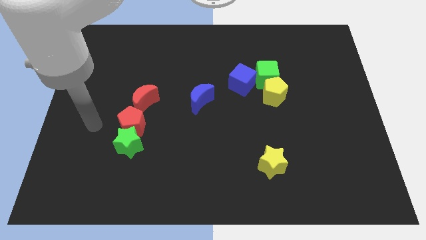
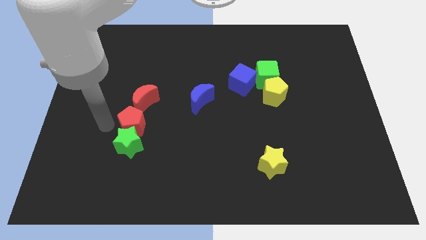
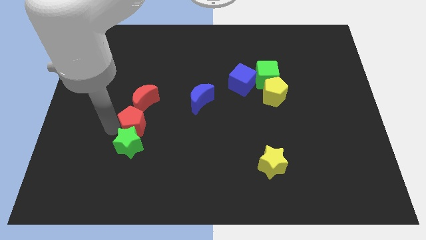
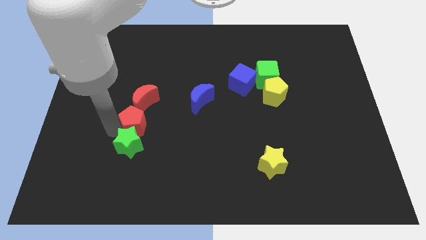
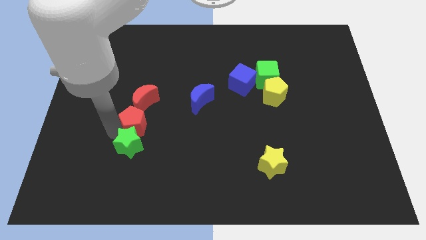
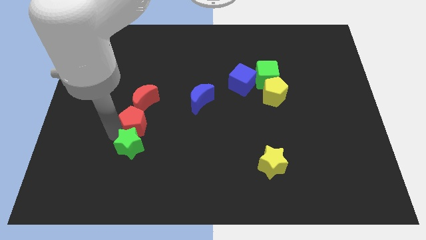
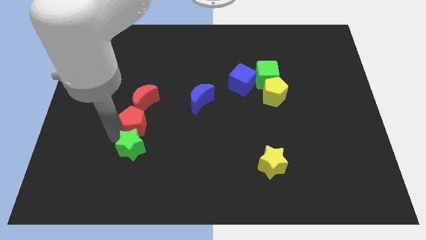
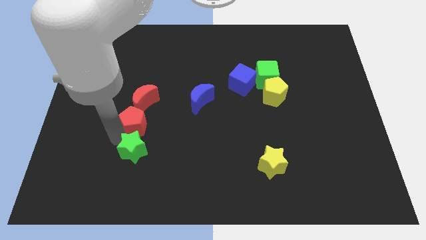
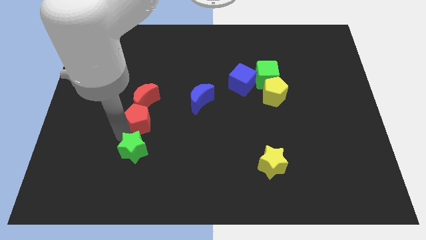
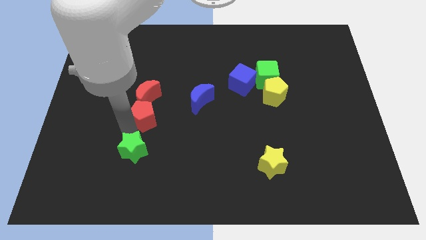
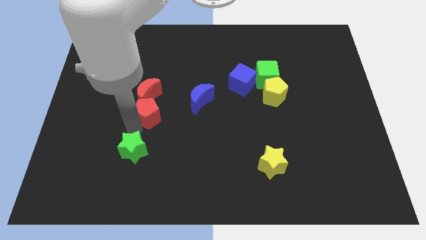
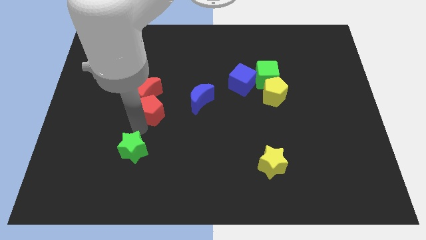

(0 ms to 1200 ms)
move the green star away from the red pentagon

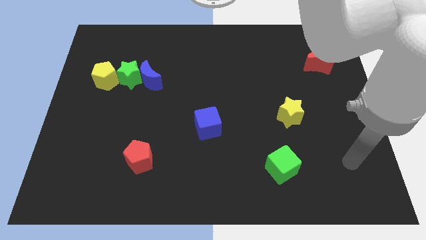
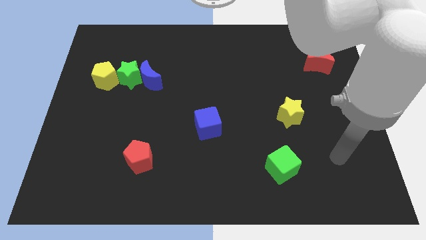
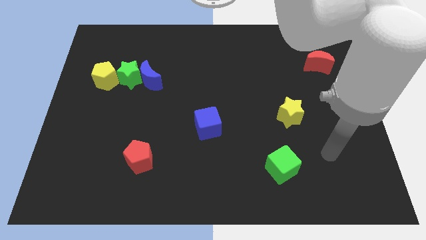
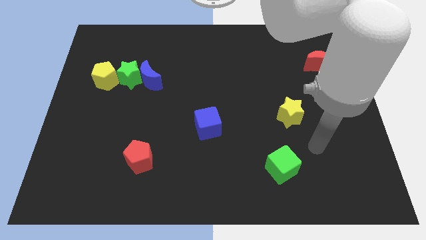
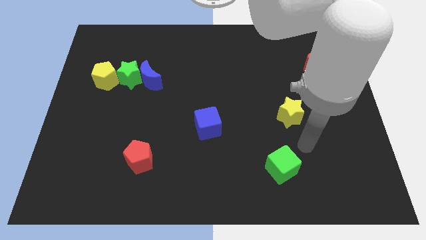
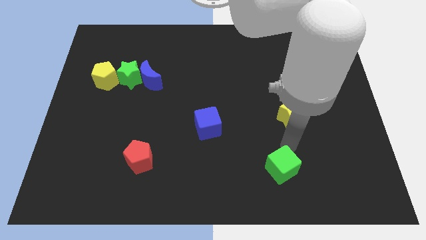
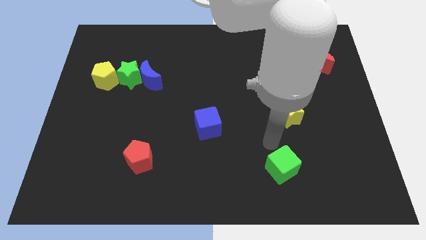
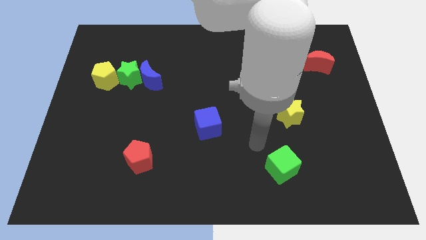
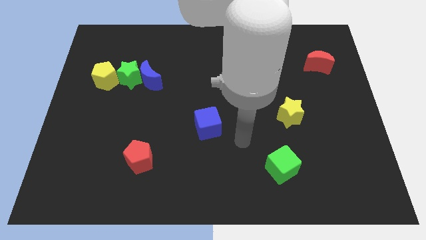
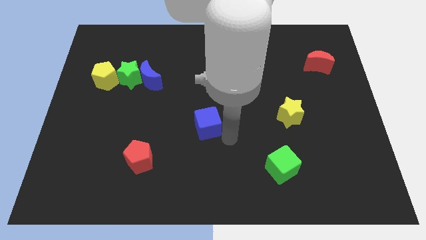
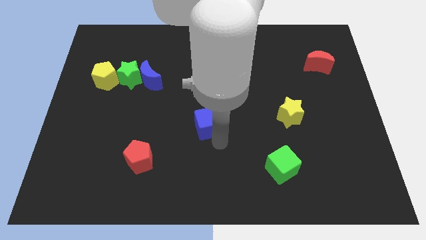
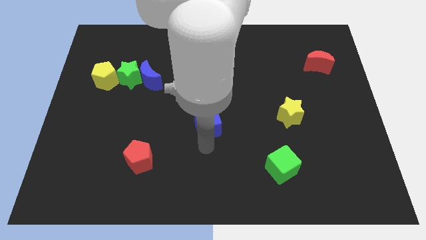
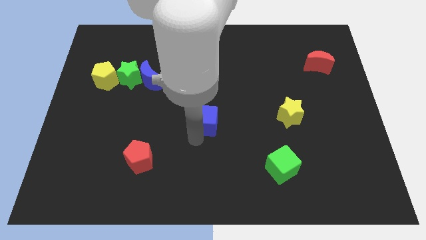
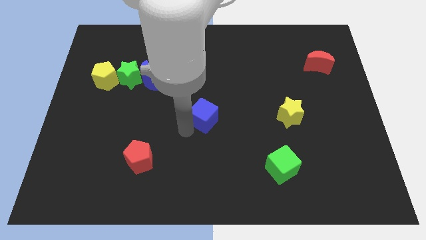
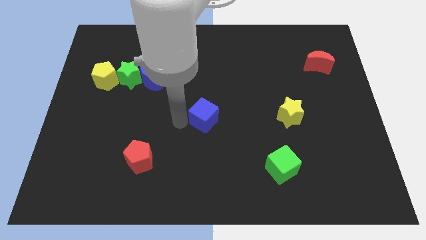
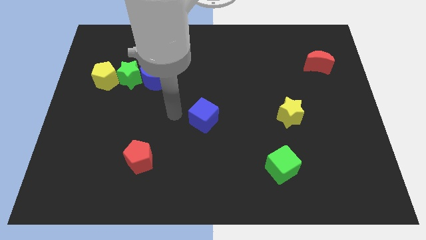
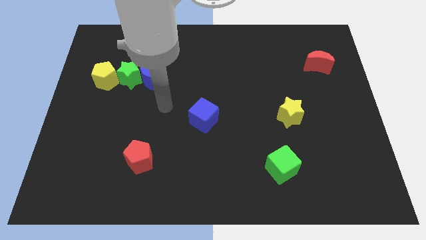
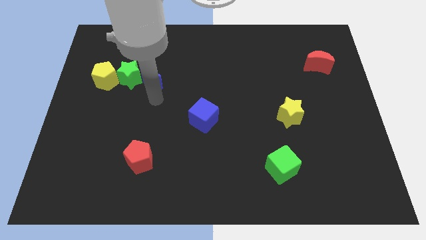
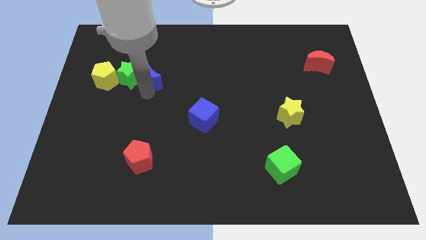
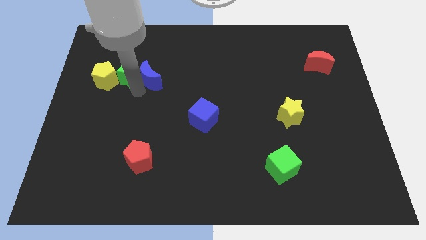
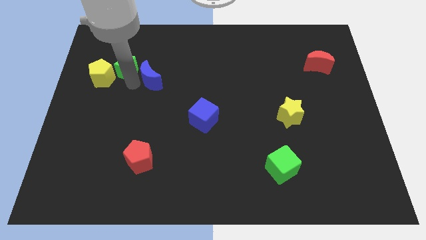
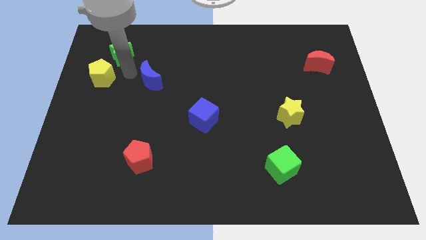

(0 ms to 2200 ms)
move the blue moon away from the green star

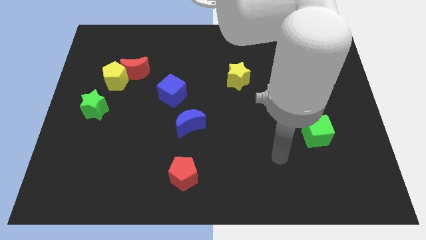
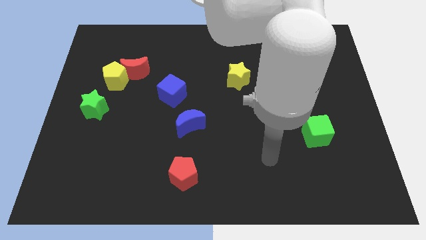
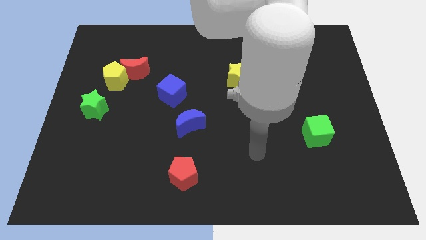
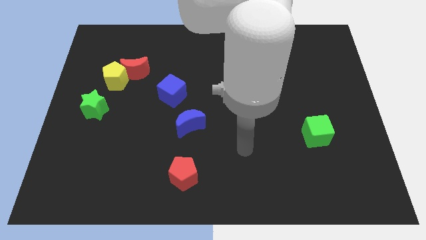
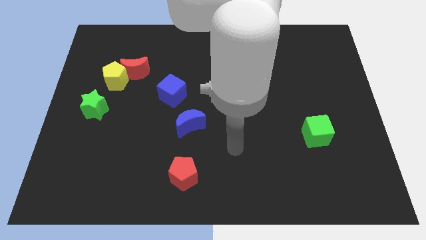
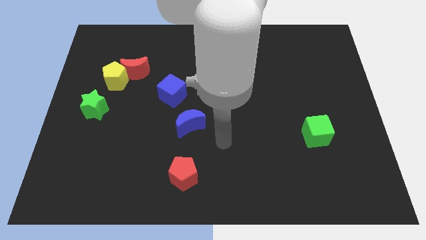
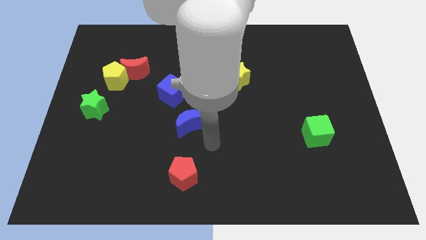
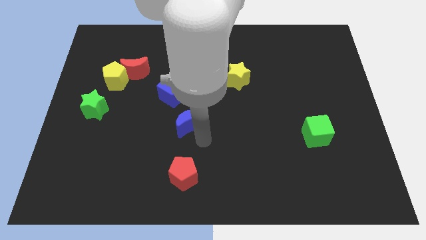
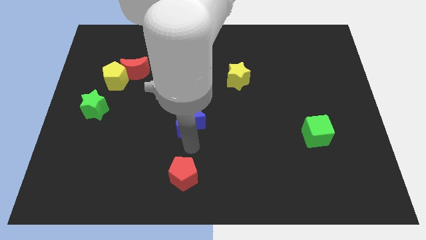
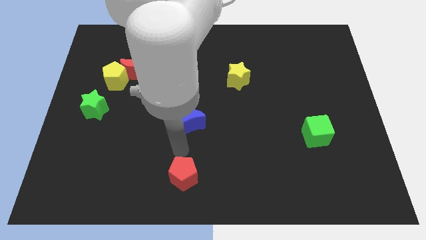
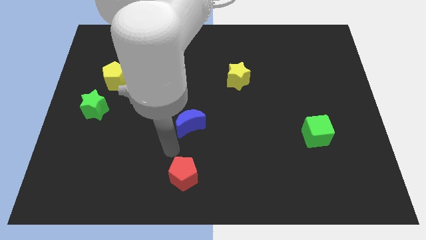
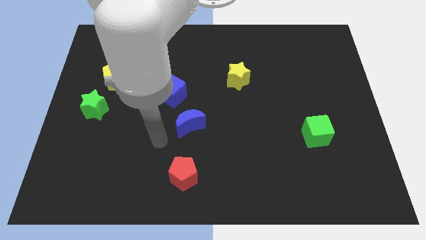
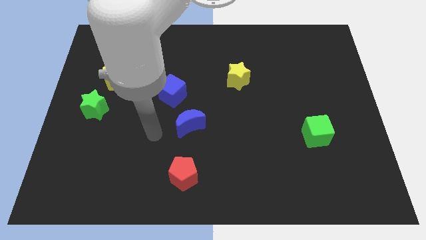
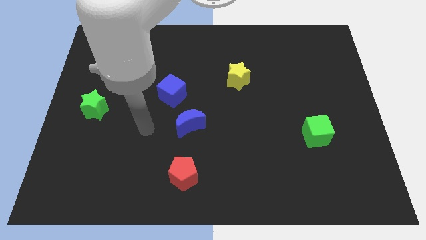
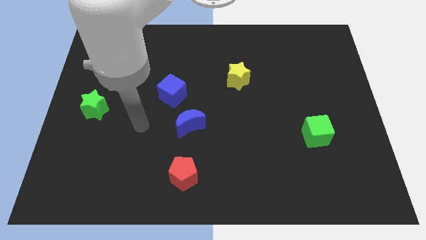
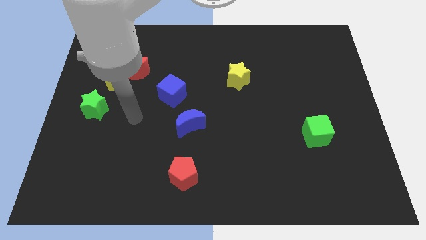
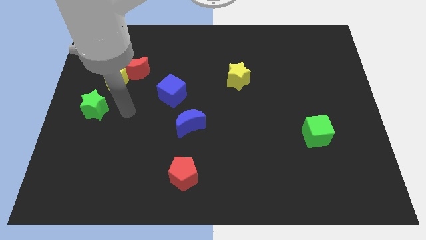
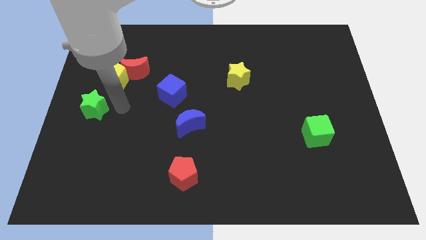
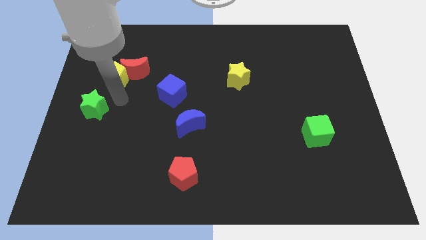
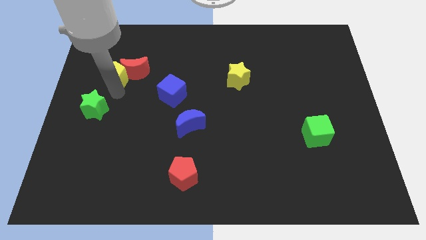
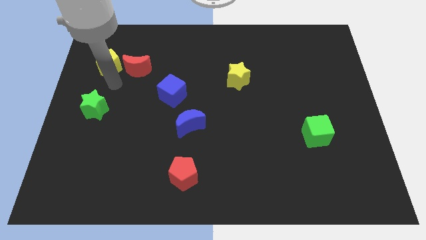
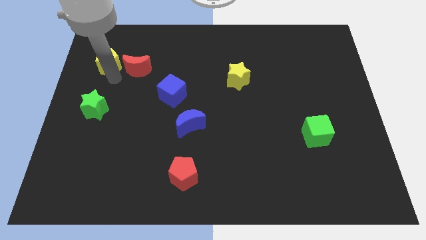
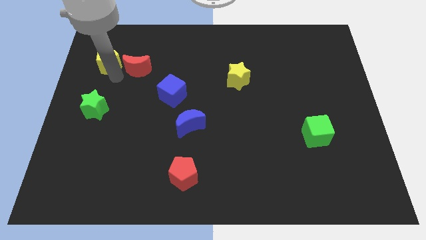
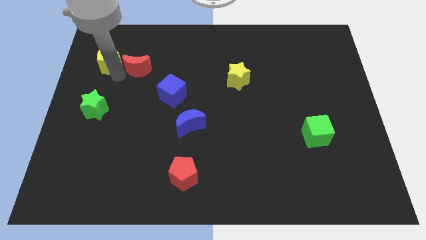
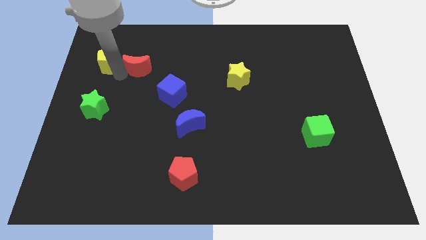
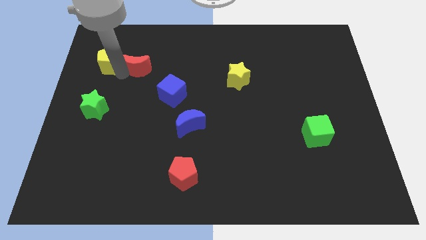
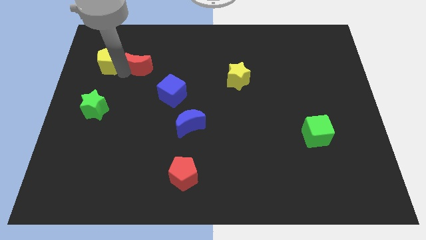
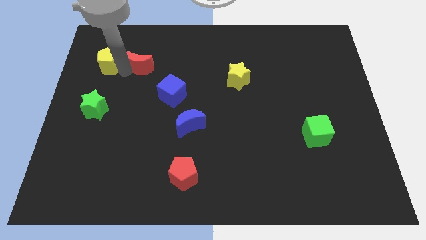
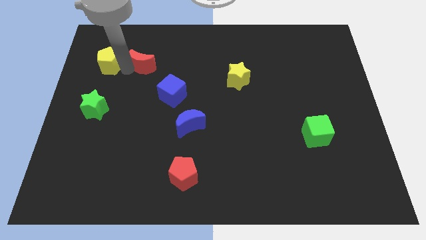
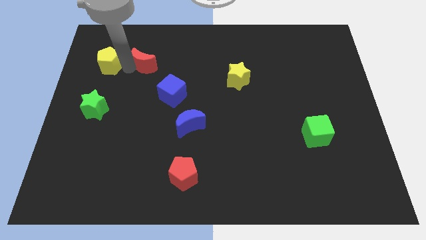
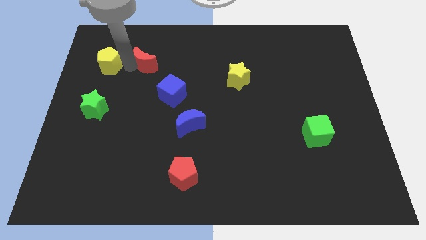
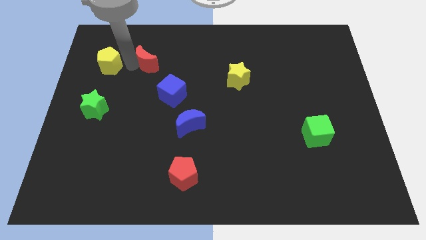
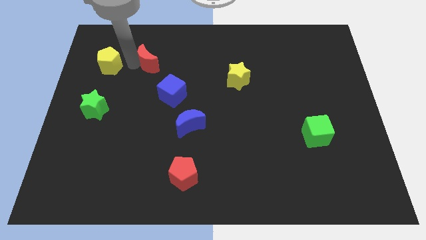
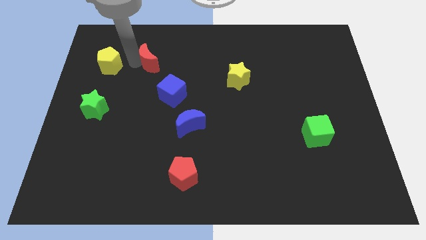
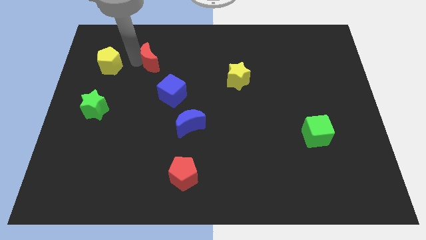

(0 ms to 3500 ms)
pull the red moon apart from the yellow pentagon

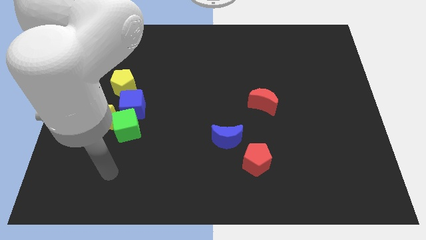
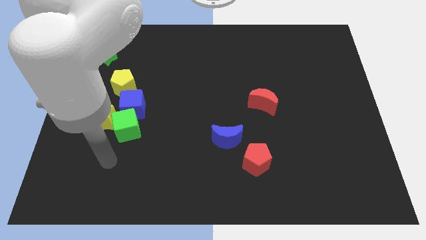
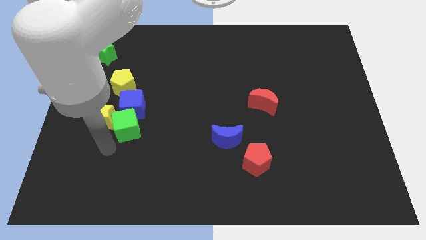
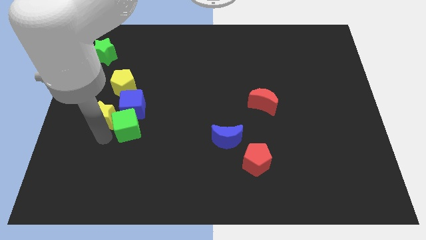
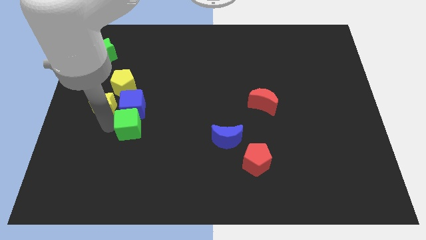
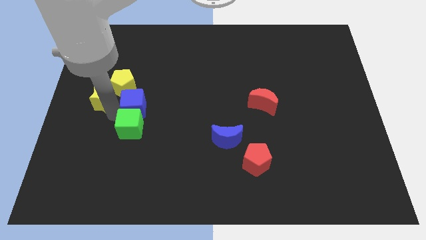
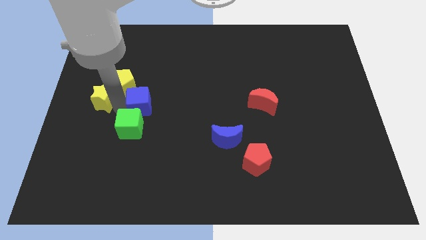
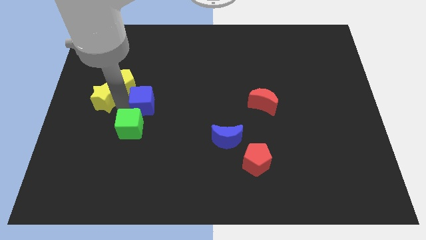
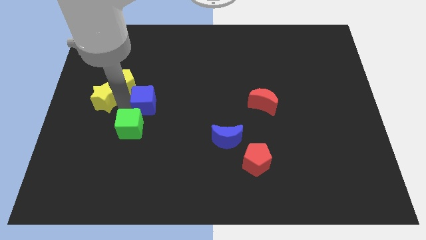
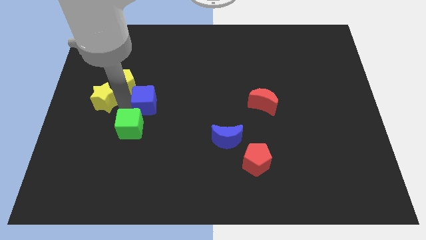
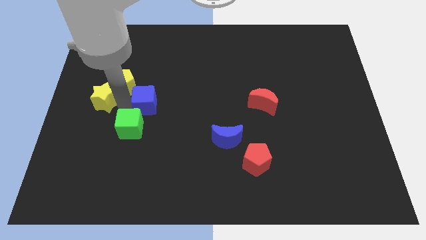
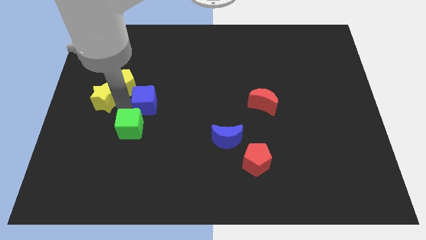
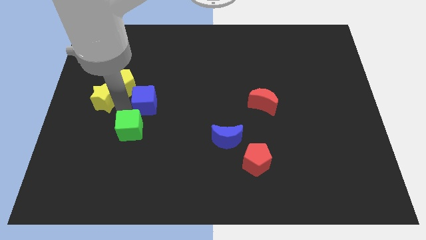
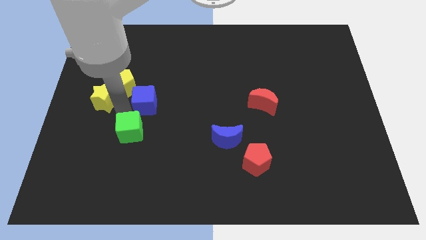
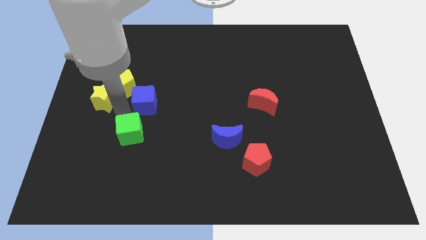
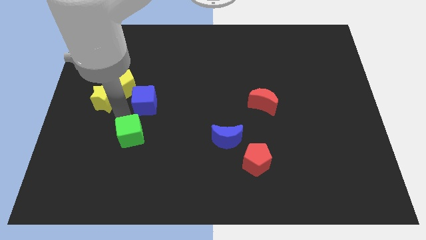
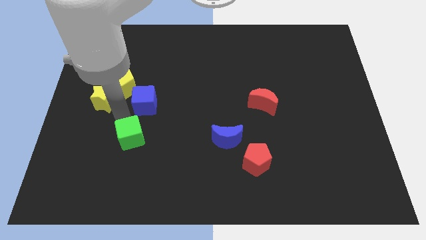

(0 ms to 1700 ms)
move the green cube away from the blue cube and yellow star

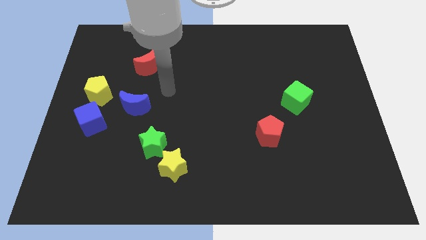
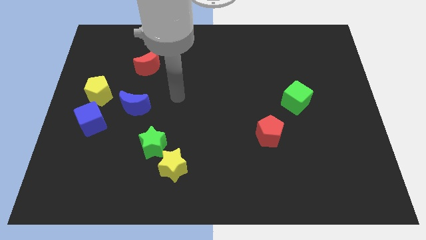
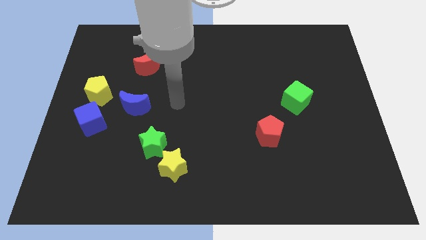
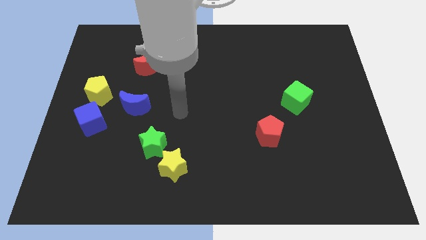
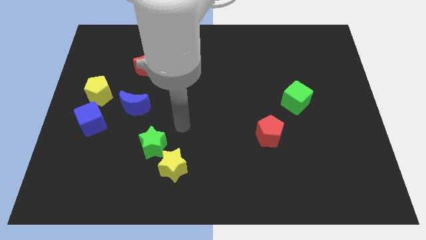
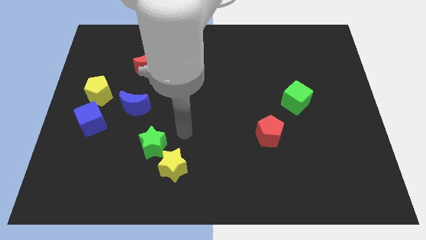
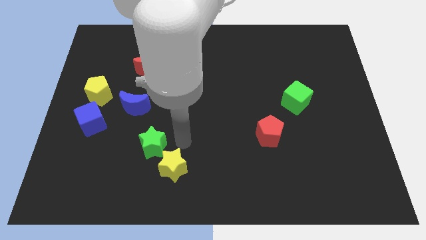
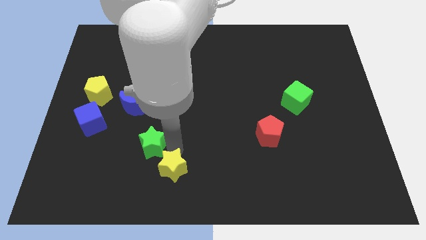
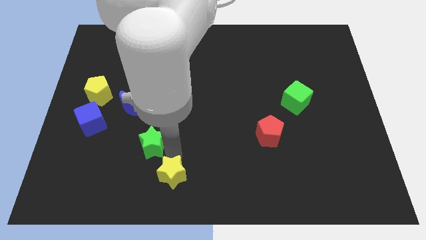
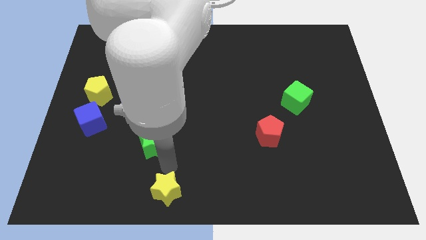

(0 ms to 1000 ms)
move the green star away from the yellow star
